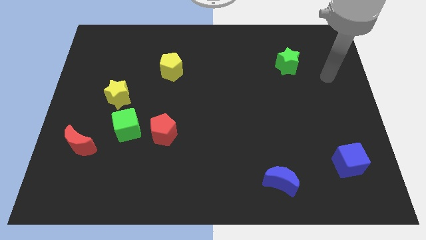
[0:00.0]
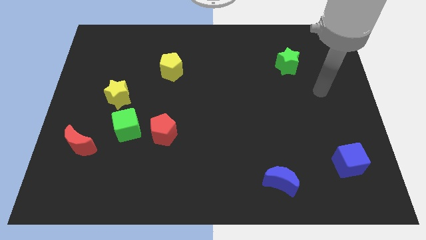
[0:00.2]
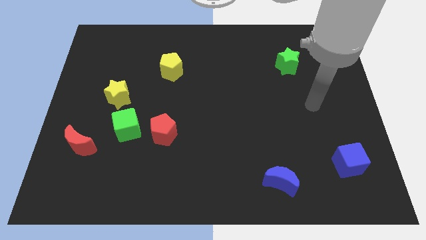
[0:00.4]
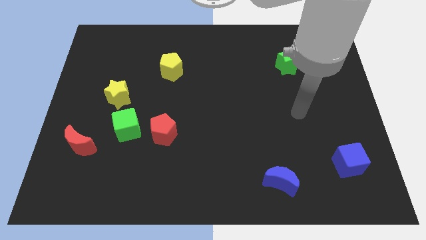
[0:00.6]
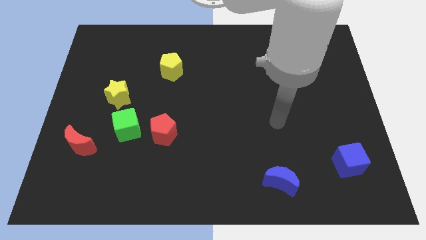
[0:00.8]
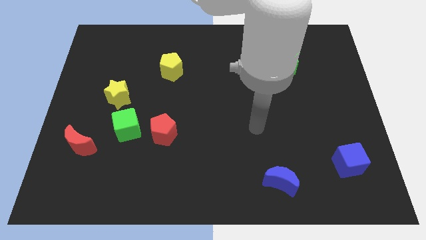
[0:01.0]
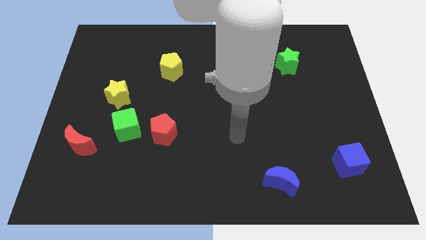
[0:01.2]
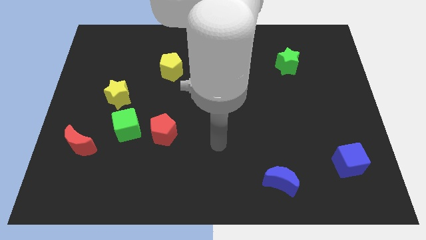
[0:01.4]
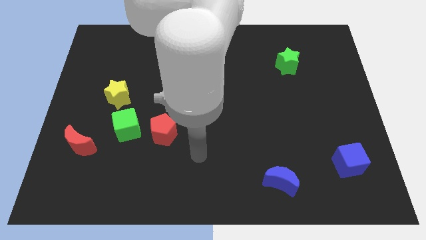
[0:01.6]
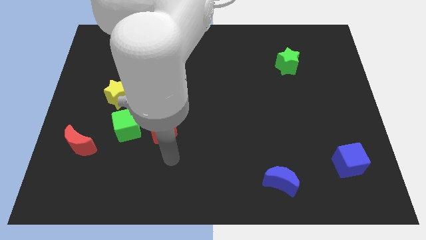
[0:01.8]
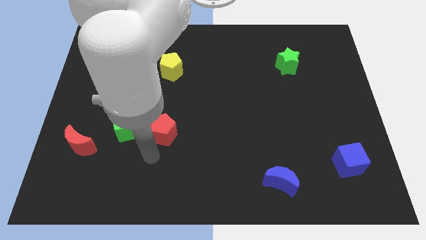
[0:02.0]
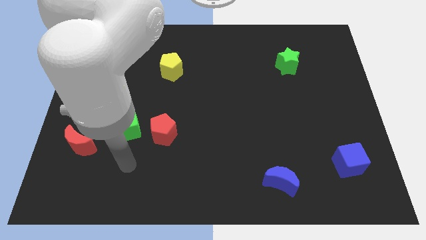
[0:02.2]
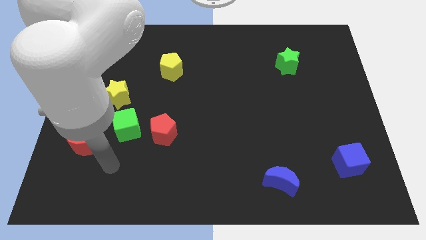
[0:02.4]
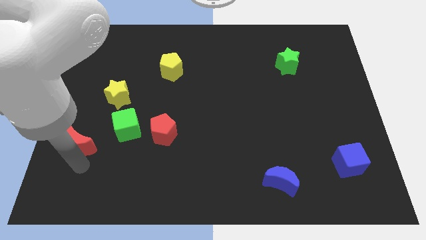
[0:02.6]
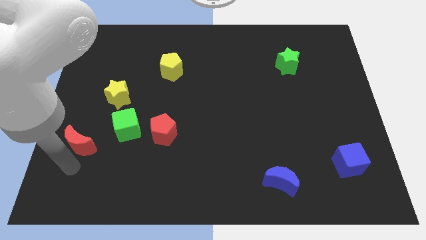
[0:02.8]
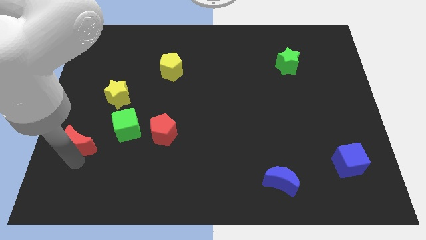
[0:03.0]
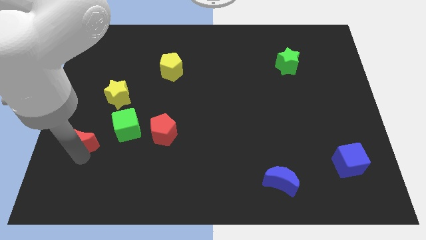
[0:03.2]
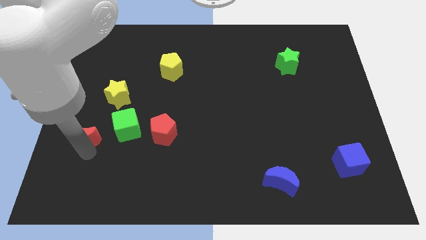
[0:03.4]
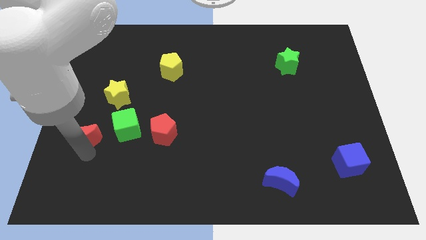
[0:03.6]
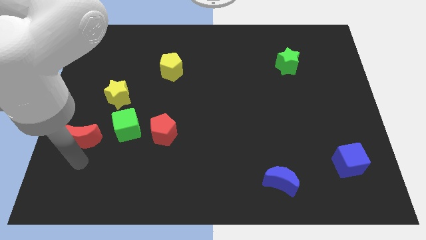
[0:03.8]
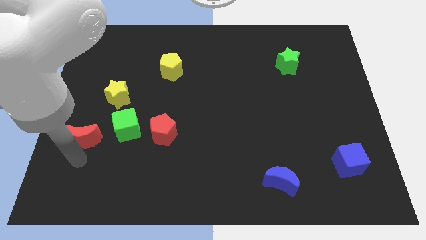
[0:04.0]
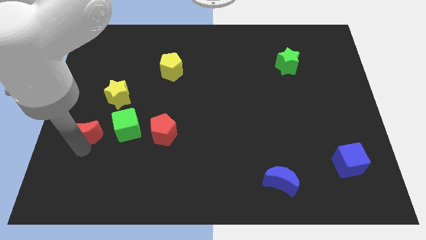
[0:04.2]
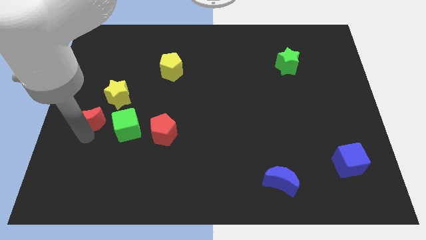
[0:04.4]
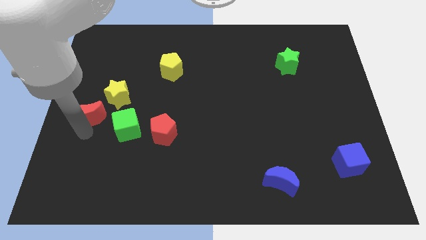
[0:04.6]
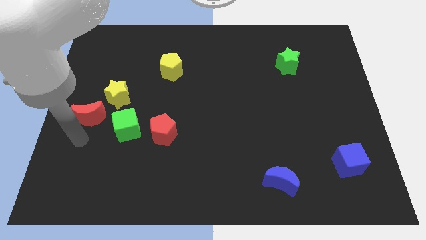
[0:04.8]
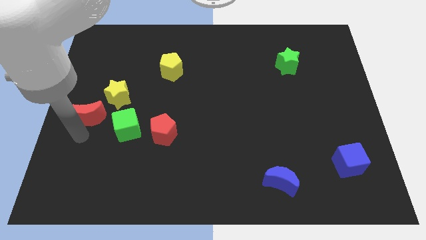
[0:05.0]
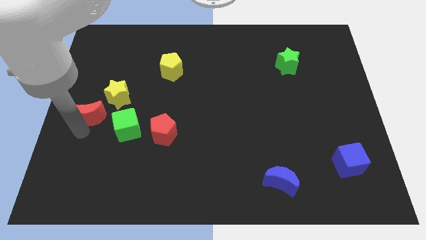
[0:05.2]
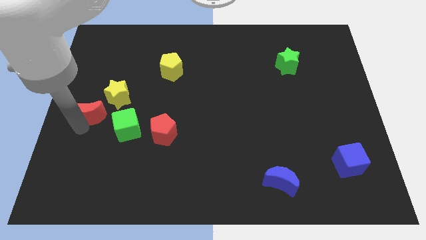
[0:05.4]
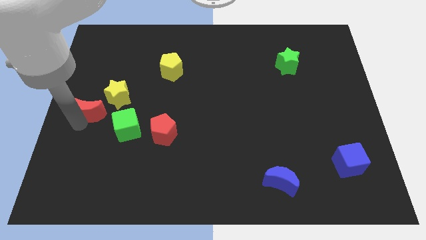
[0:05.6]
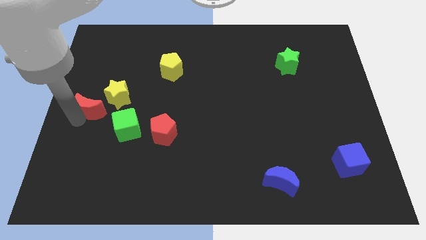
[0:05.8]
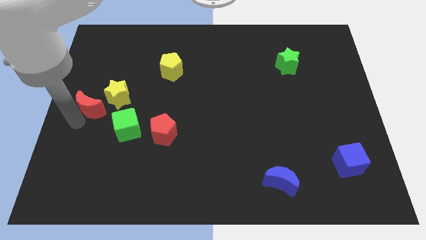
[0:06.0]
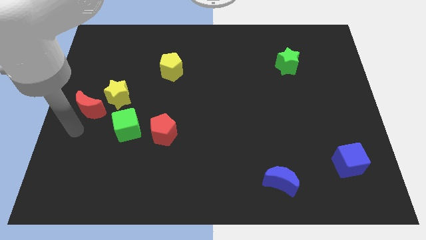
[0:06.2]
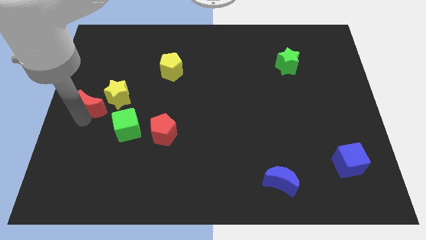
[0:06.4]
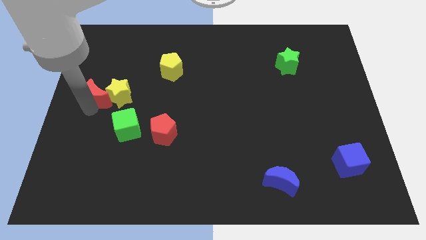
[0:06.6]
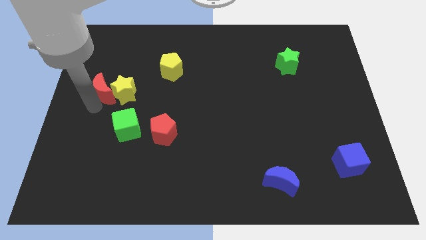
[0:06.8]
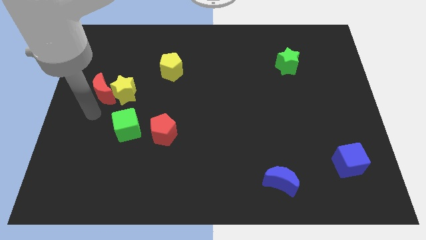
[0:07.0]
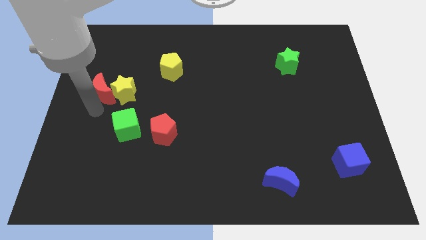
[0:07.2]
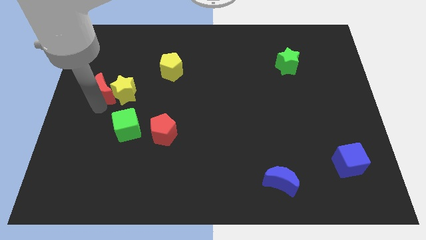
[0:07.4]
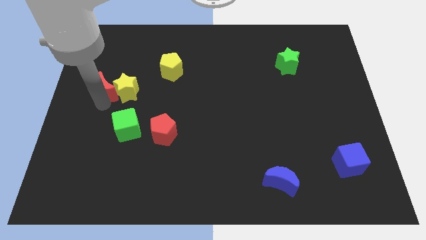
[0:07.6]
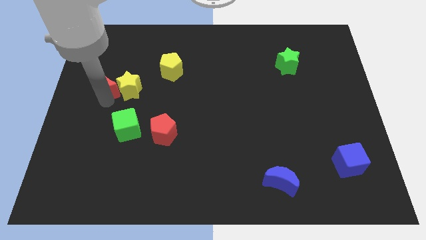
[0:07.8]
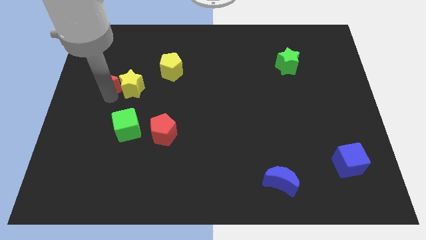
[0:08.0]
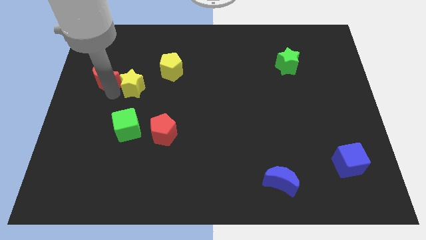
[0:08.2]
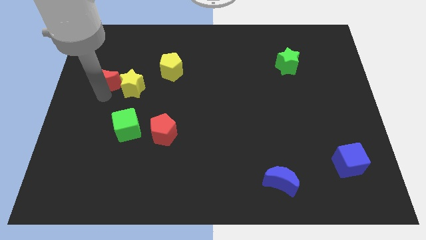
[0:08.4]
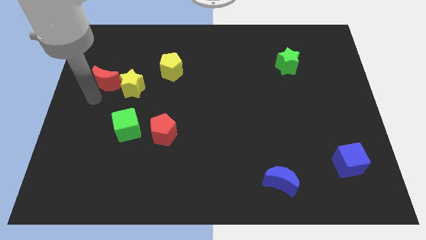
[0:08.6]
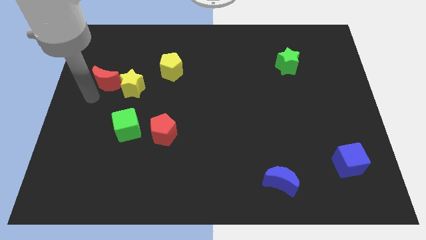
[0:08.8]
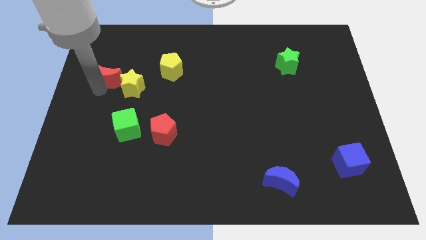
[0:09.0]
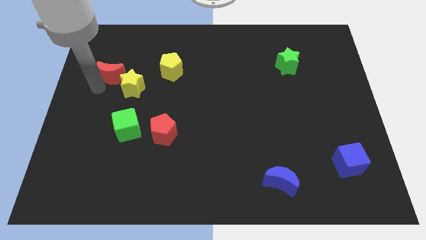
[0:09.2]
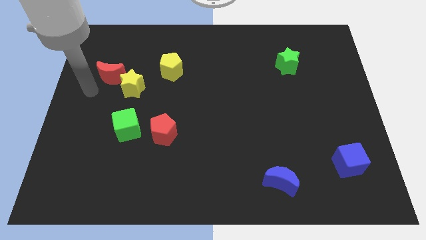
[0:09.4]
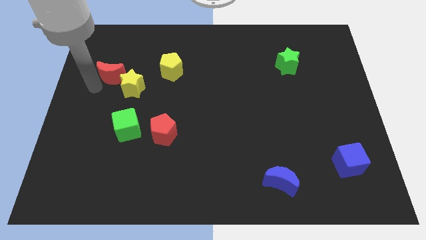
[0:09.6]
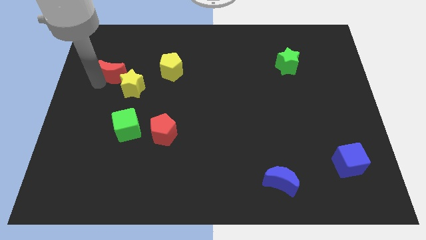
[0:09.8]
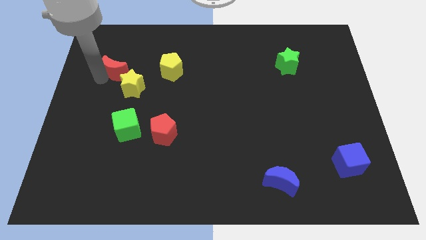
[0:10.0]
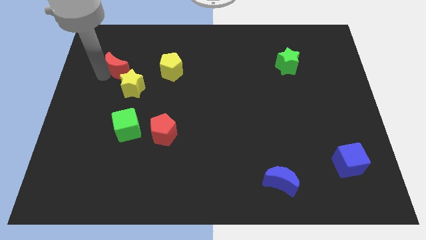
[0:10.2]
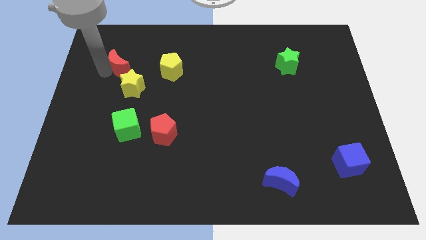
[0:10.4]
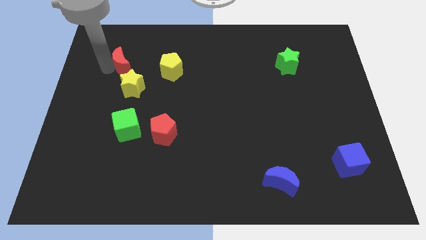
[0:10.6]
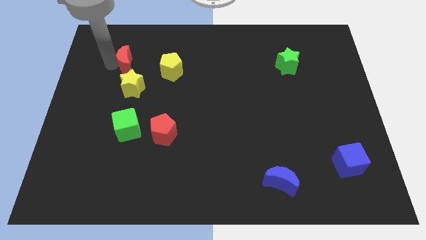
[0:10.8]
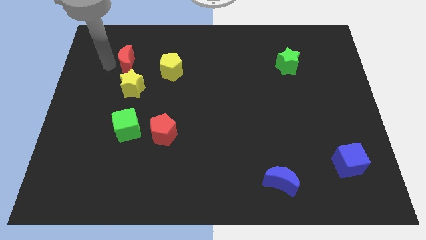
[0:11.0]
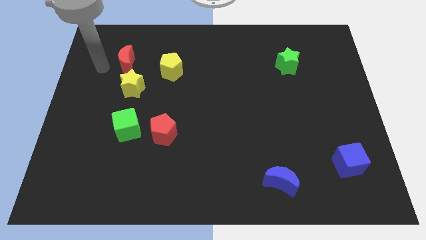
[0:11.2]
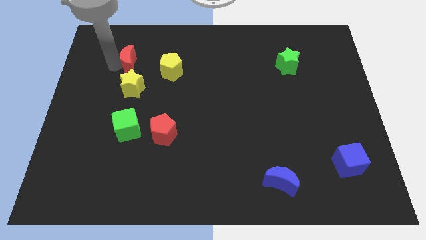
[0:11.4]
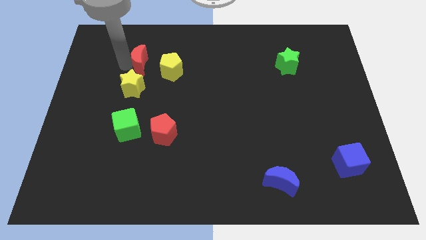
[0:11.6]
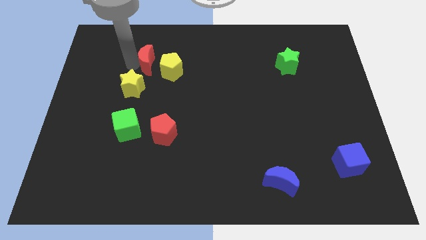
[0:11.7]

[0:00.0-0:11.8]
push the red moon up and then right

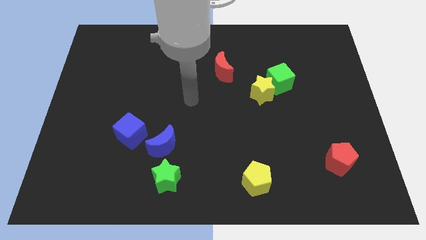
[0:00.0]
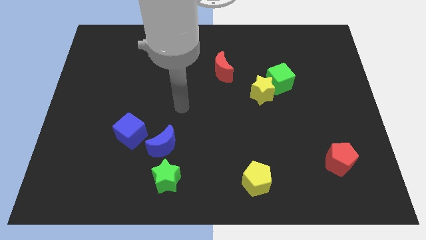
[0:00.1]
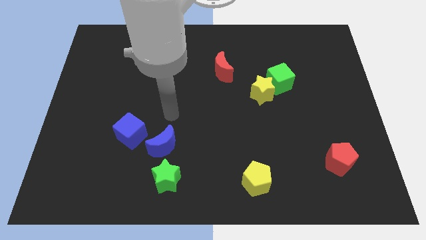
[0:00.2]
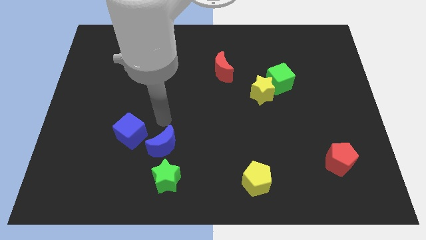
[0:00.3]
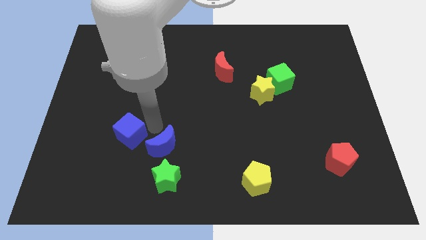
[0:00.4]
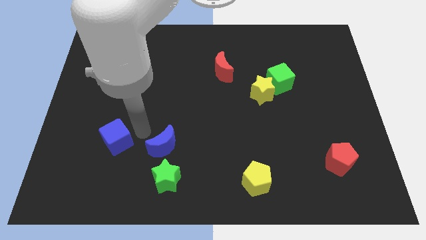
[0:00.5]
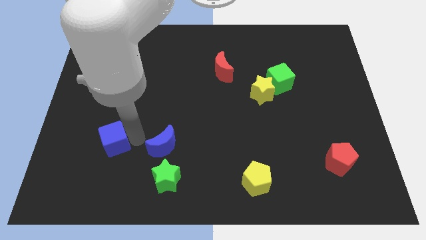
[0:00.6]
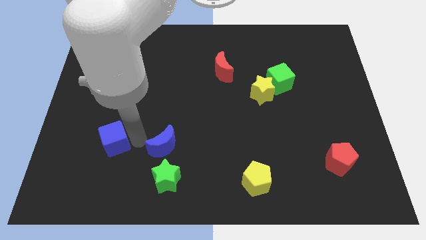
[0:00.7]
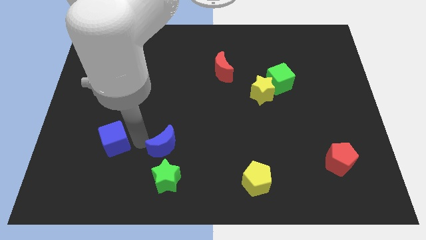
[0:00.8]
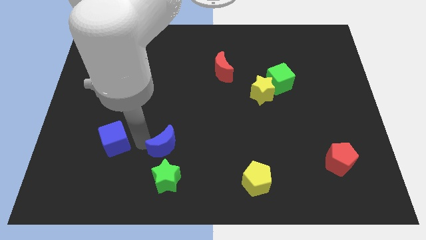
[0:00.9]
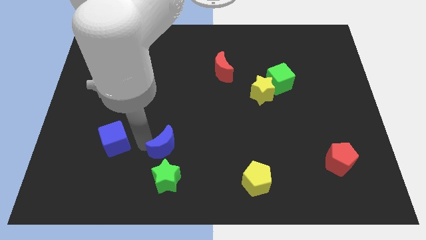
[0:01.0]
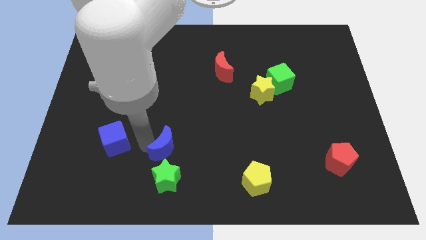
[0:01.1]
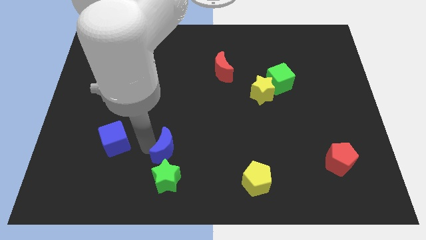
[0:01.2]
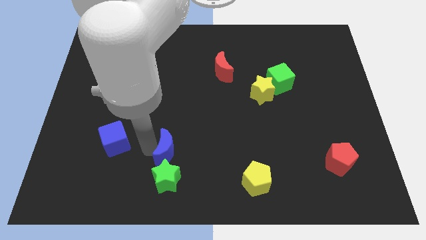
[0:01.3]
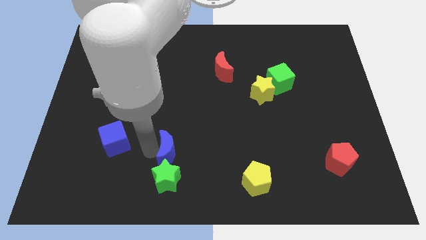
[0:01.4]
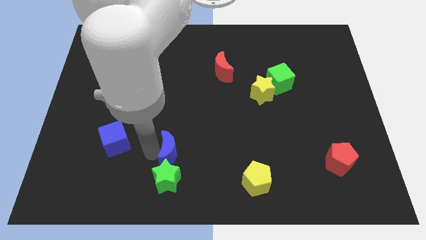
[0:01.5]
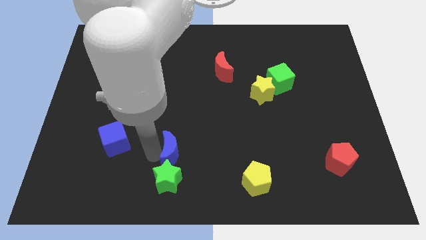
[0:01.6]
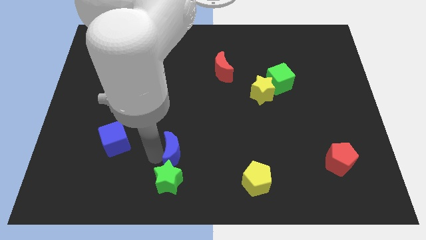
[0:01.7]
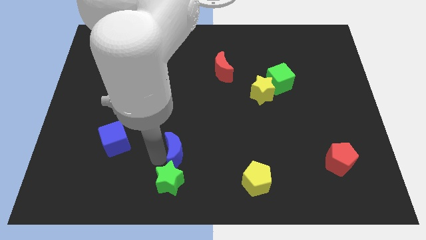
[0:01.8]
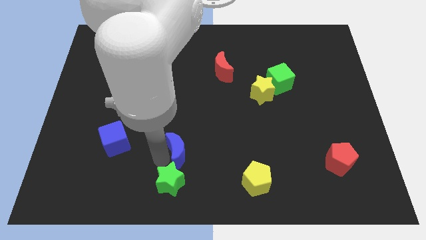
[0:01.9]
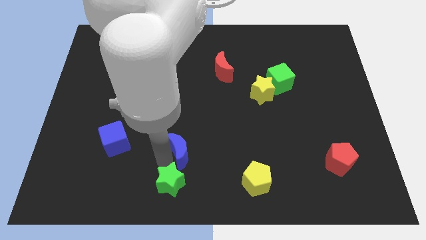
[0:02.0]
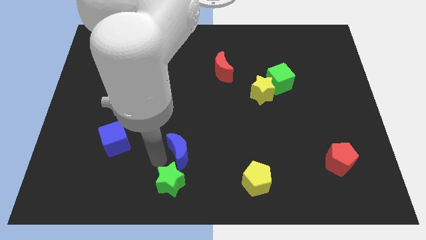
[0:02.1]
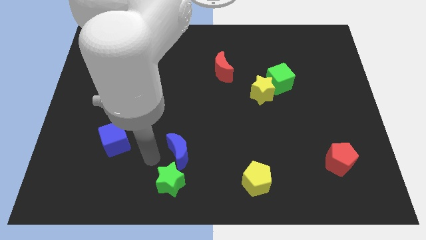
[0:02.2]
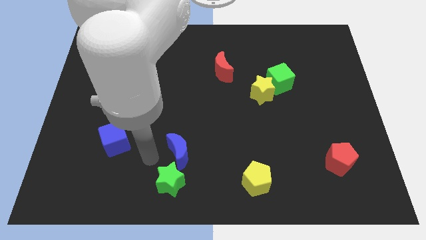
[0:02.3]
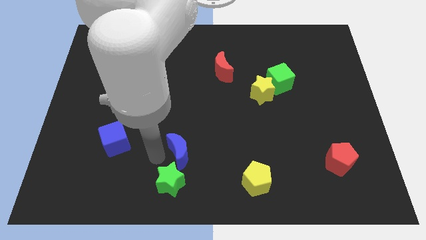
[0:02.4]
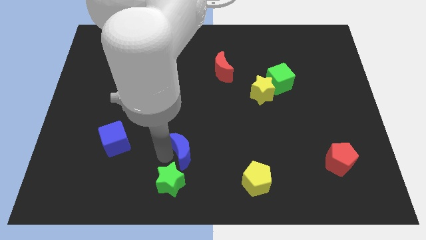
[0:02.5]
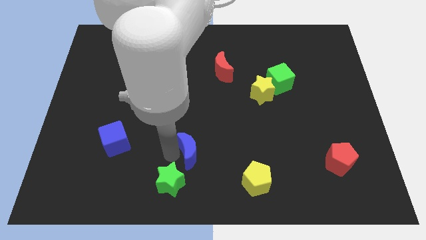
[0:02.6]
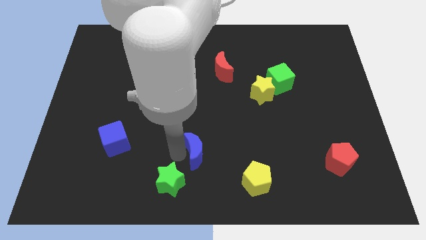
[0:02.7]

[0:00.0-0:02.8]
move the blue moon a bit to the right
